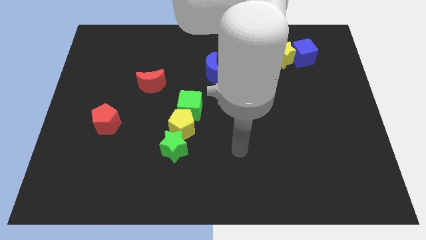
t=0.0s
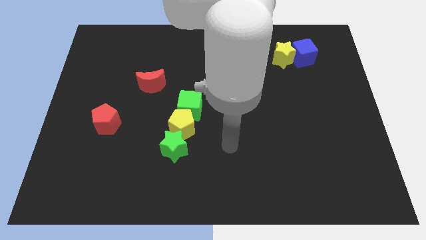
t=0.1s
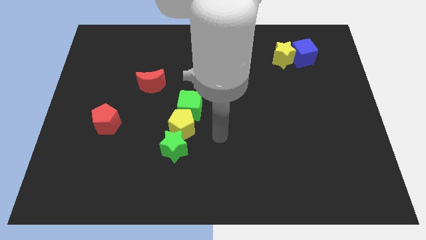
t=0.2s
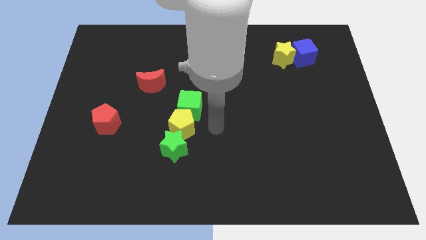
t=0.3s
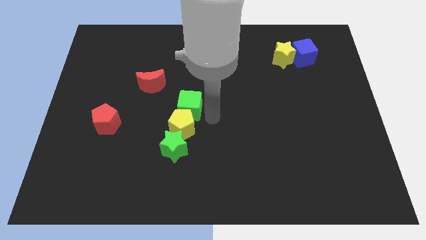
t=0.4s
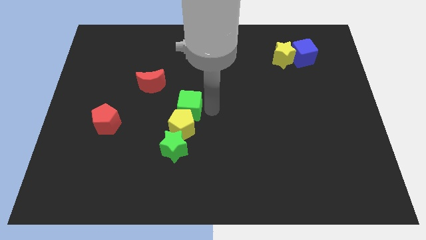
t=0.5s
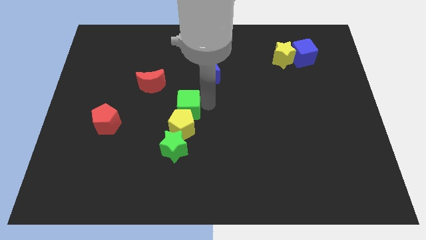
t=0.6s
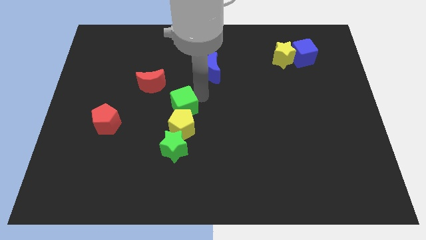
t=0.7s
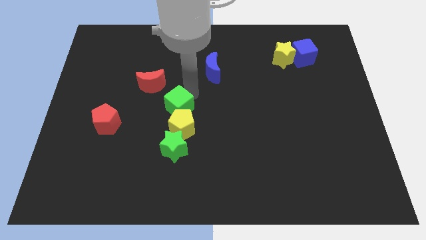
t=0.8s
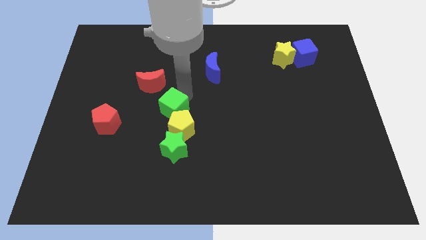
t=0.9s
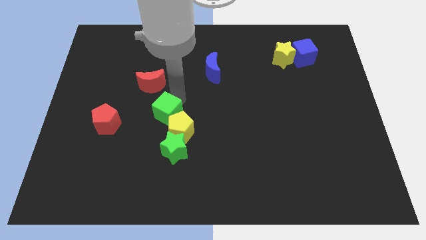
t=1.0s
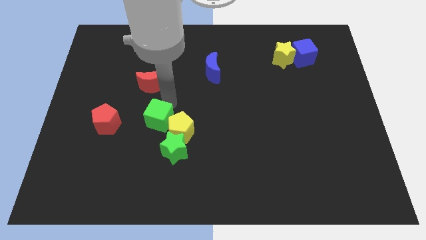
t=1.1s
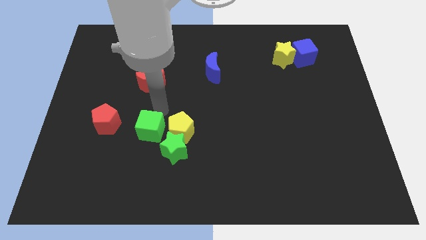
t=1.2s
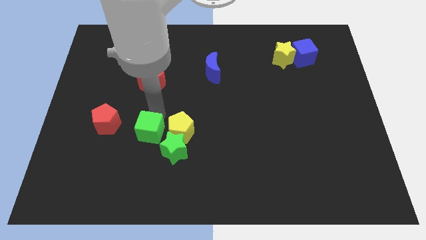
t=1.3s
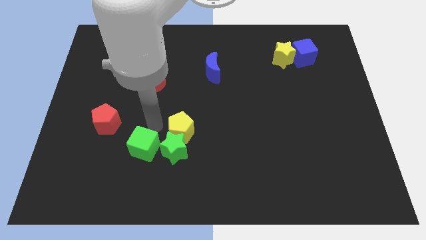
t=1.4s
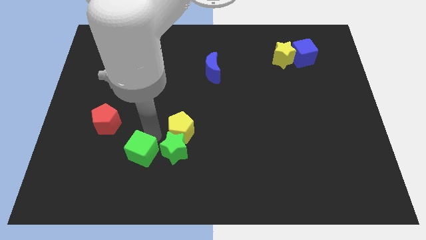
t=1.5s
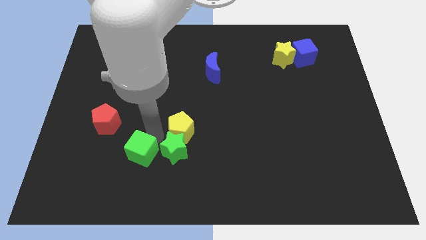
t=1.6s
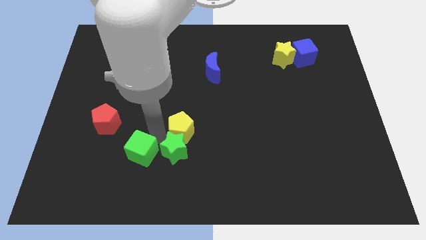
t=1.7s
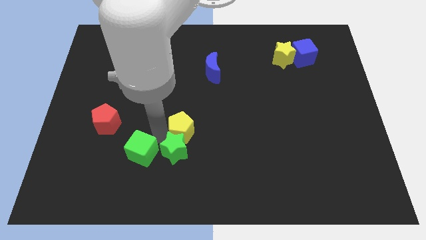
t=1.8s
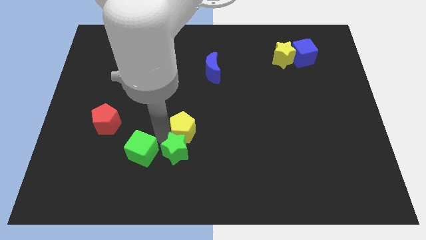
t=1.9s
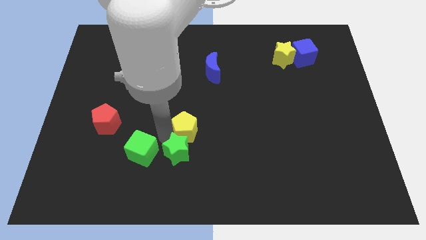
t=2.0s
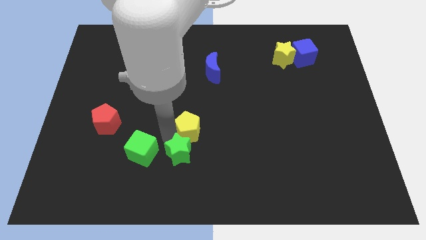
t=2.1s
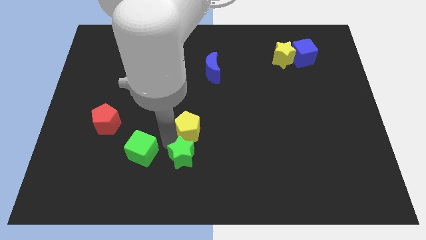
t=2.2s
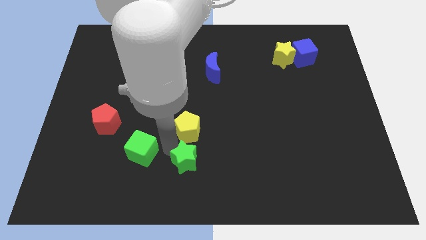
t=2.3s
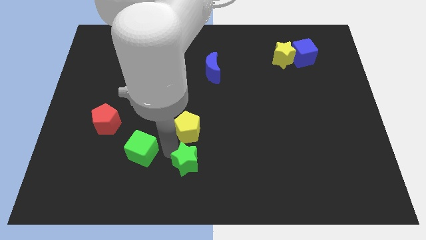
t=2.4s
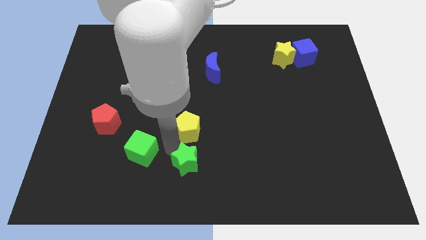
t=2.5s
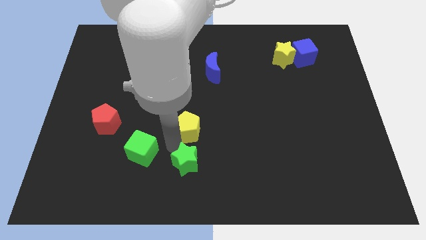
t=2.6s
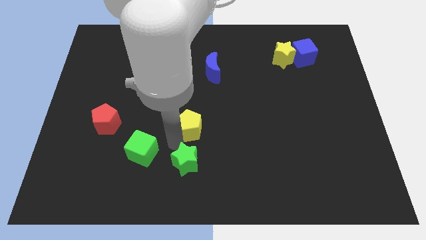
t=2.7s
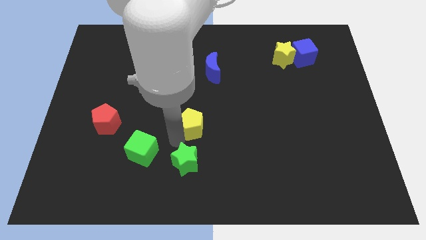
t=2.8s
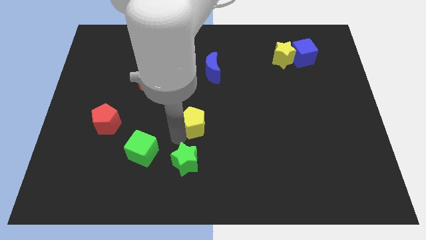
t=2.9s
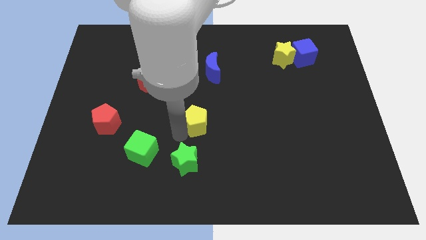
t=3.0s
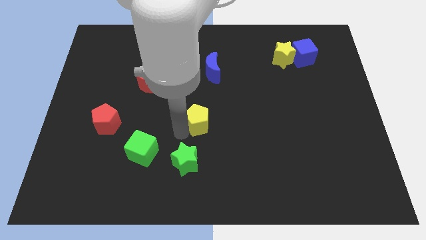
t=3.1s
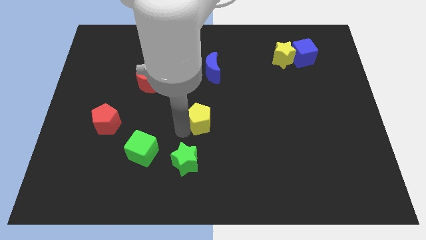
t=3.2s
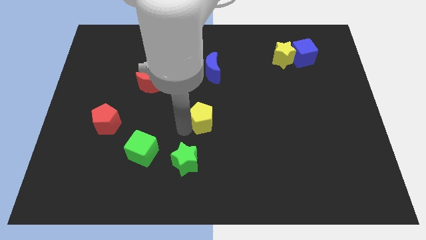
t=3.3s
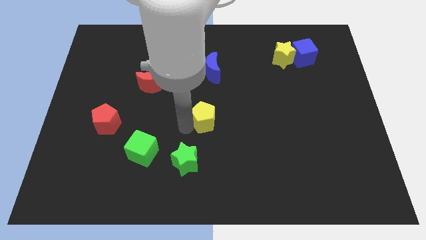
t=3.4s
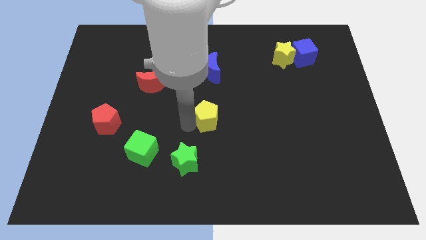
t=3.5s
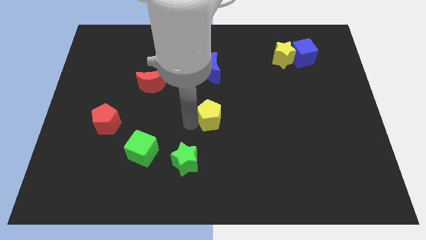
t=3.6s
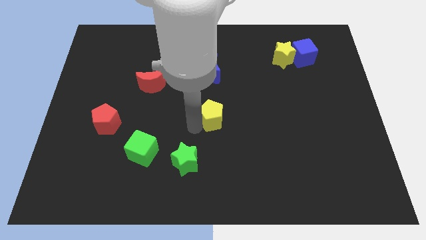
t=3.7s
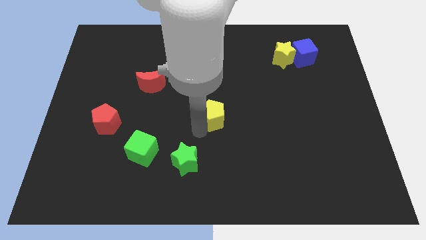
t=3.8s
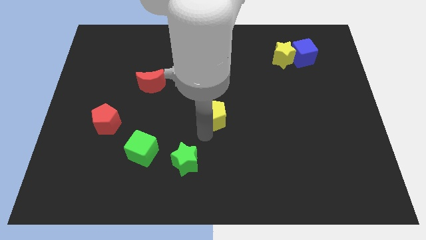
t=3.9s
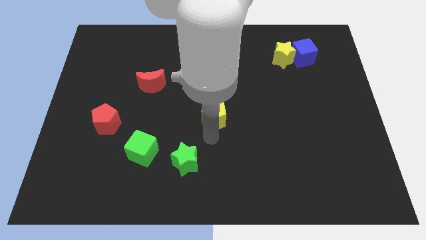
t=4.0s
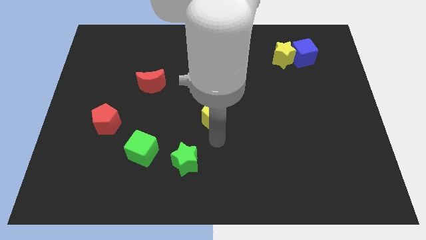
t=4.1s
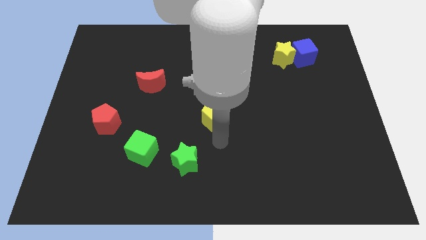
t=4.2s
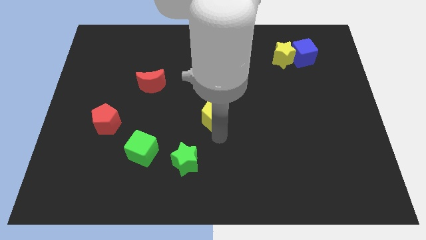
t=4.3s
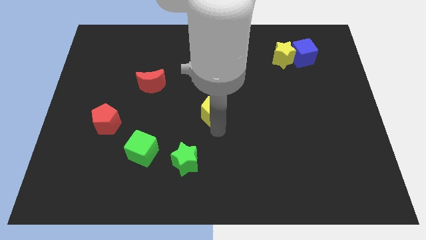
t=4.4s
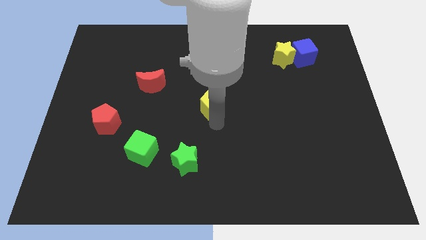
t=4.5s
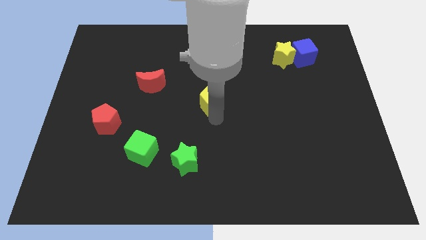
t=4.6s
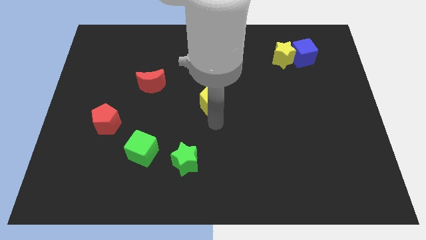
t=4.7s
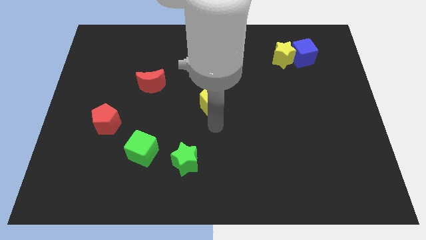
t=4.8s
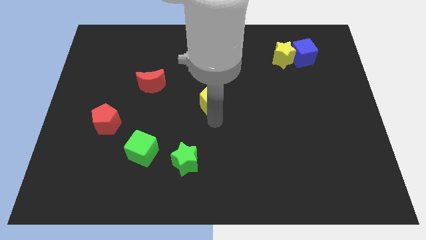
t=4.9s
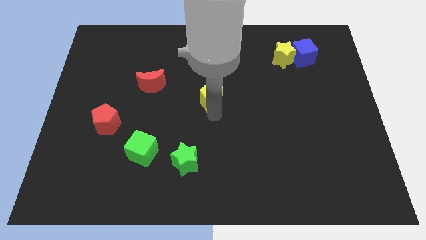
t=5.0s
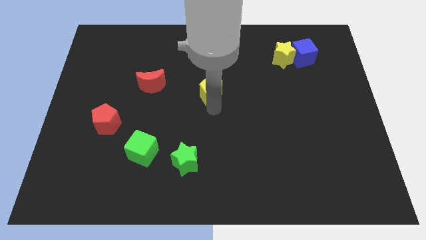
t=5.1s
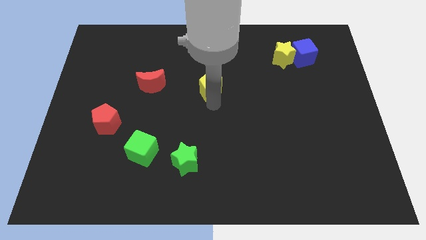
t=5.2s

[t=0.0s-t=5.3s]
move the yellow pentagon next to the blue moon

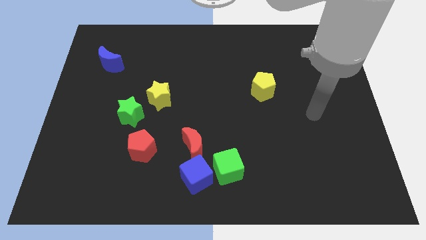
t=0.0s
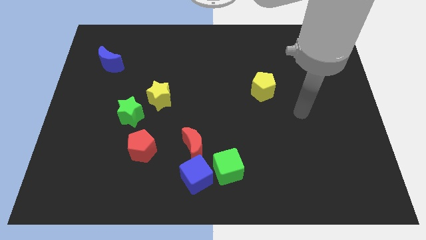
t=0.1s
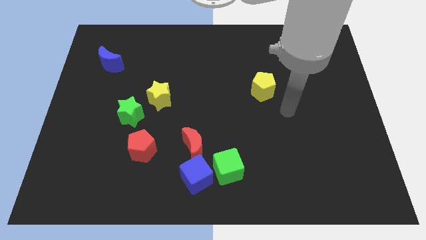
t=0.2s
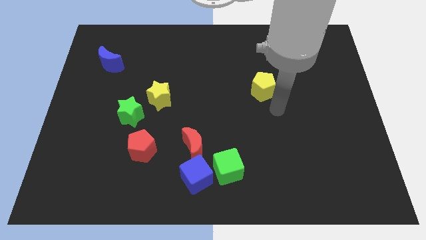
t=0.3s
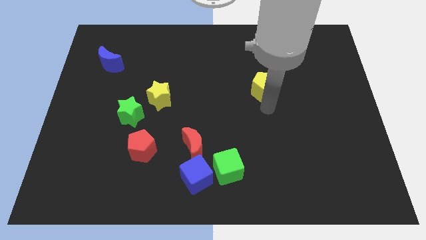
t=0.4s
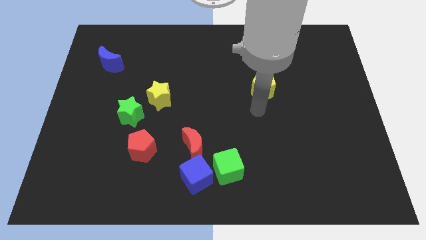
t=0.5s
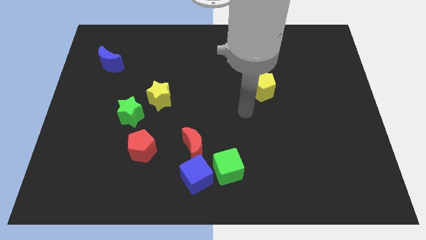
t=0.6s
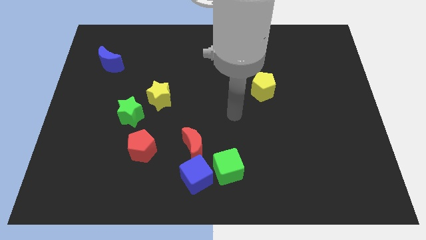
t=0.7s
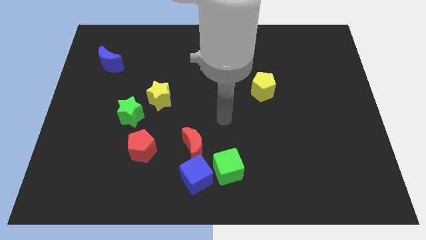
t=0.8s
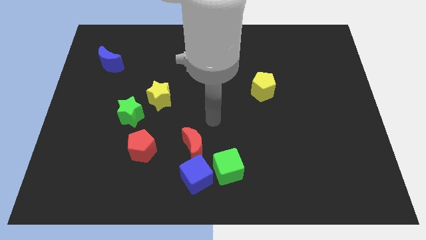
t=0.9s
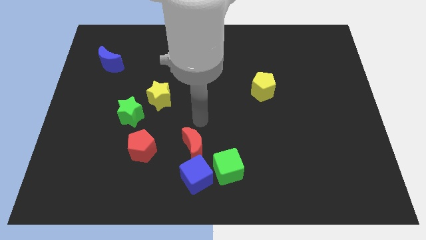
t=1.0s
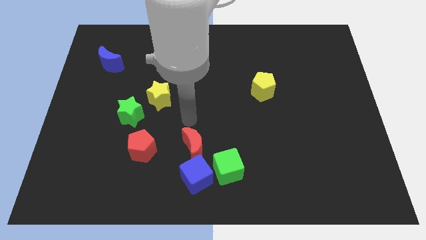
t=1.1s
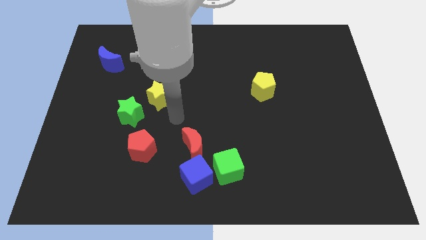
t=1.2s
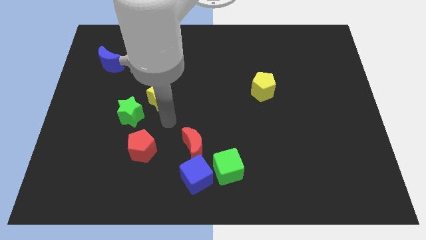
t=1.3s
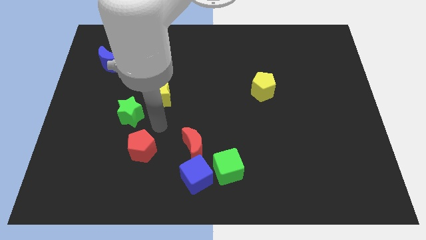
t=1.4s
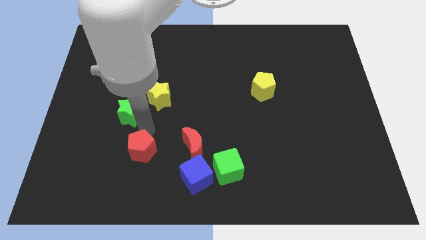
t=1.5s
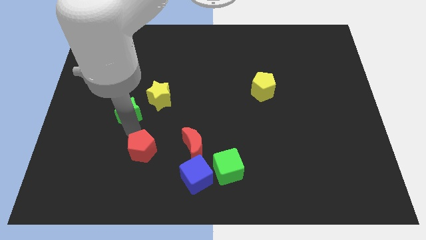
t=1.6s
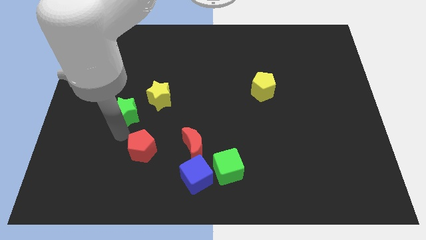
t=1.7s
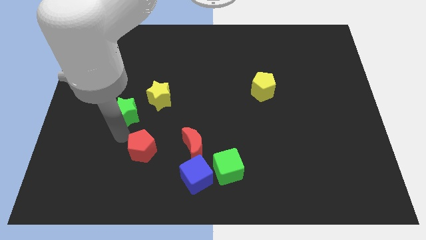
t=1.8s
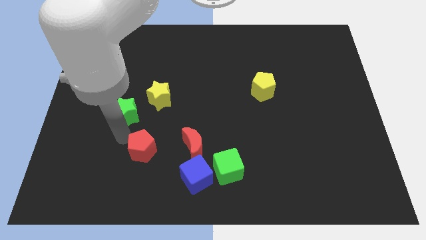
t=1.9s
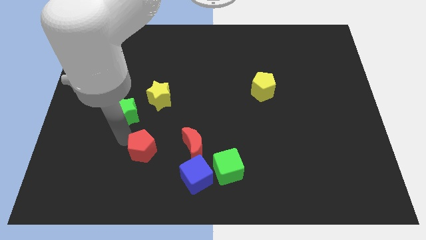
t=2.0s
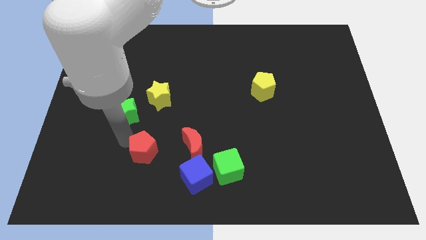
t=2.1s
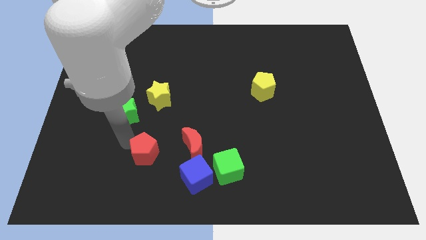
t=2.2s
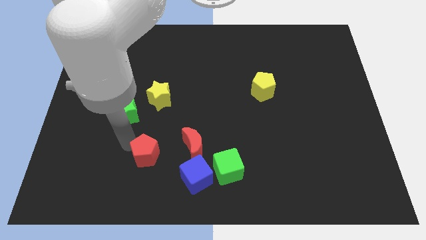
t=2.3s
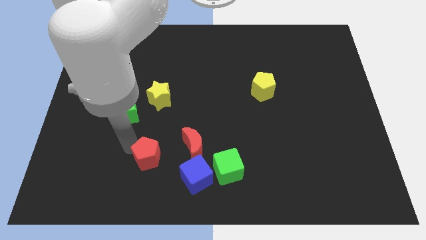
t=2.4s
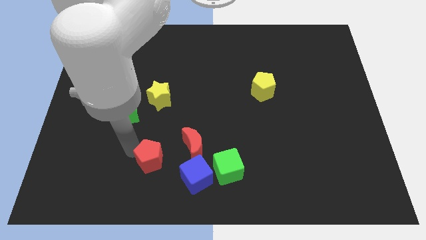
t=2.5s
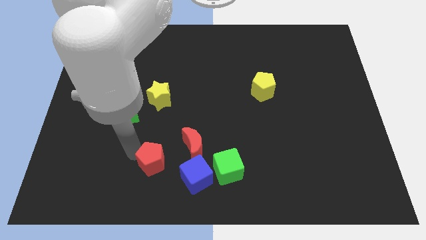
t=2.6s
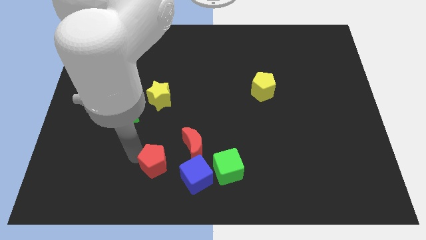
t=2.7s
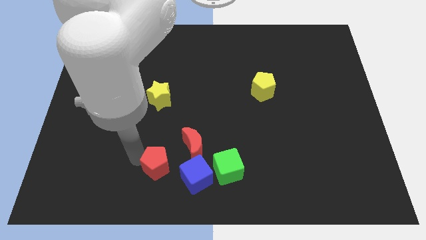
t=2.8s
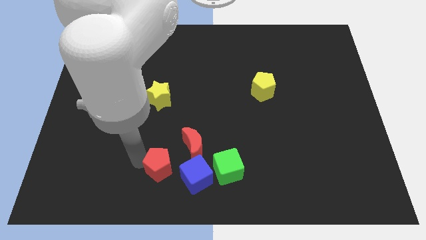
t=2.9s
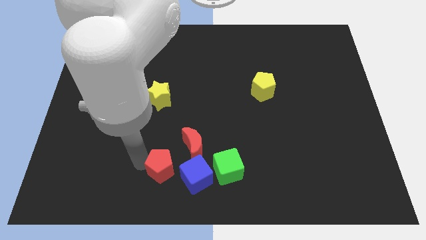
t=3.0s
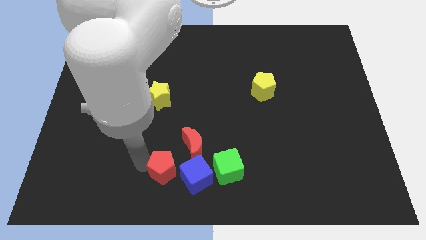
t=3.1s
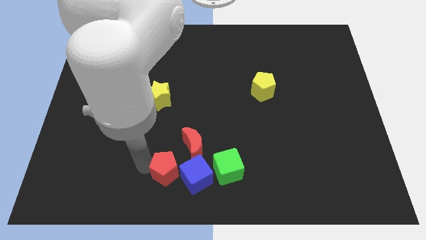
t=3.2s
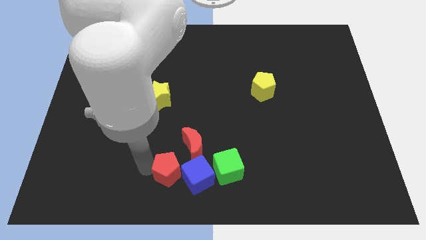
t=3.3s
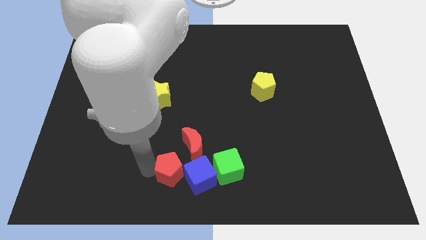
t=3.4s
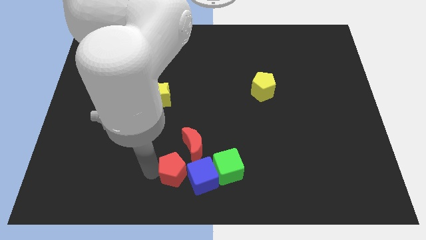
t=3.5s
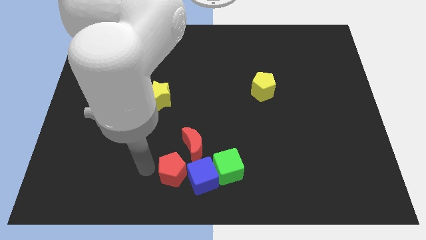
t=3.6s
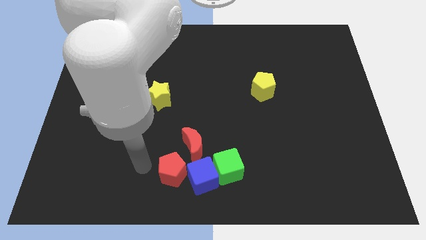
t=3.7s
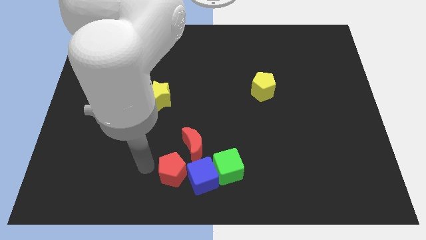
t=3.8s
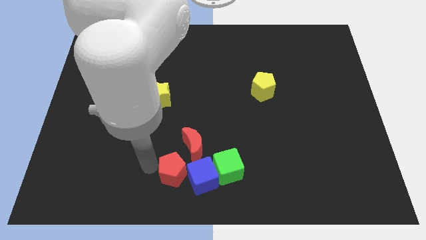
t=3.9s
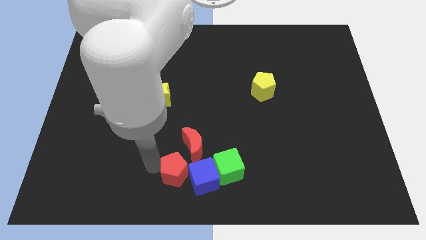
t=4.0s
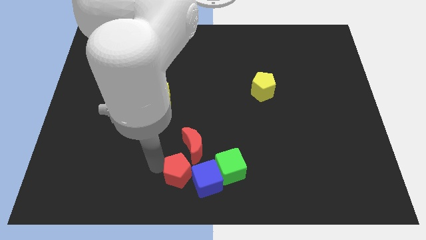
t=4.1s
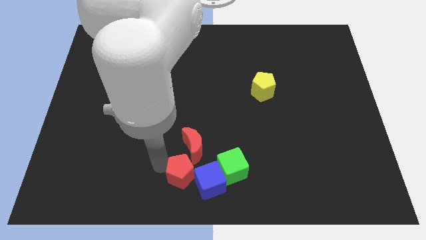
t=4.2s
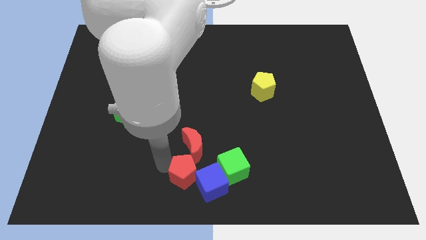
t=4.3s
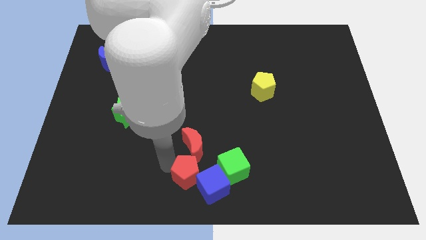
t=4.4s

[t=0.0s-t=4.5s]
slide the red pentagon to the blue cube
